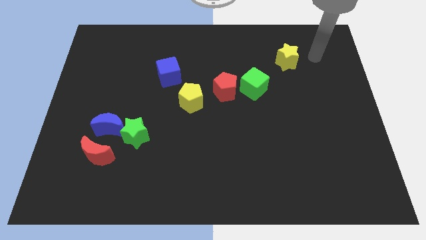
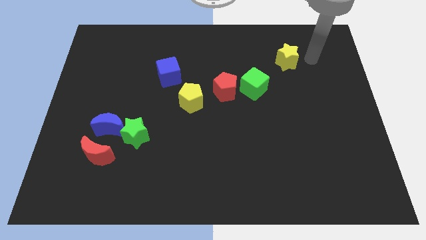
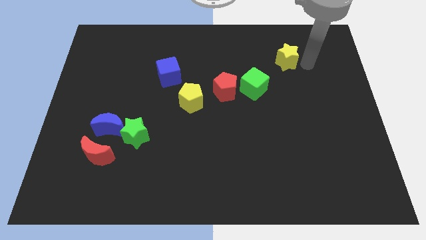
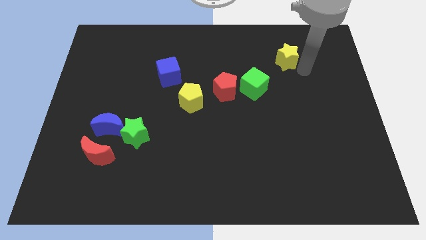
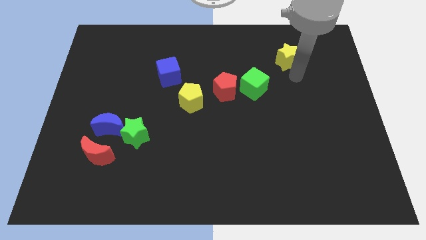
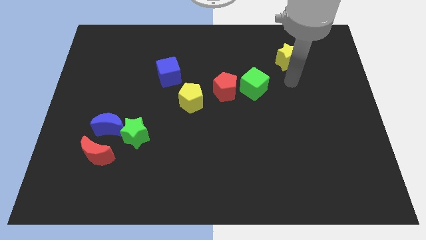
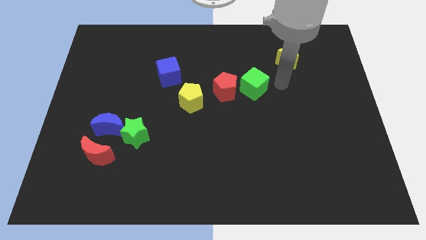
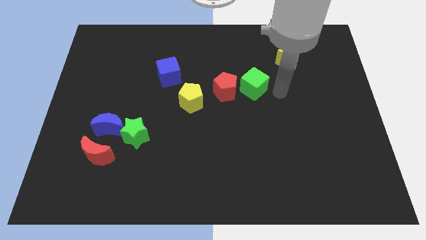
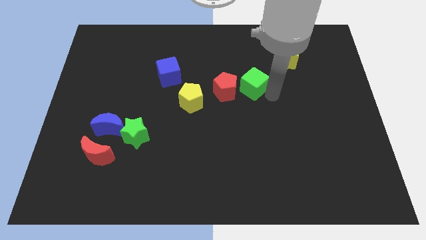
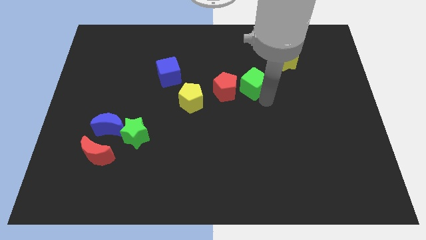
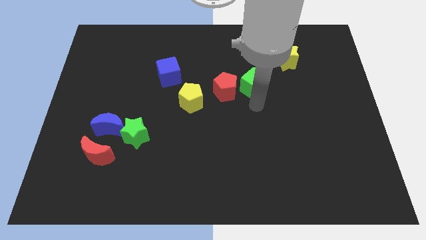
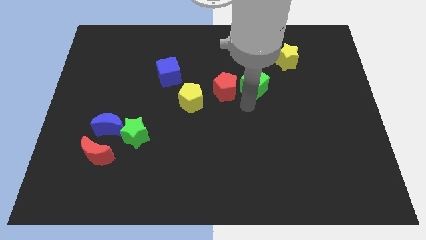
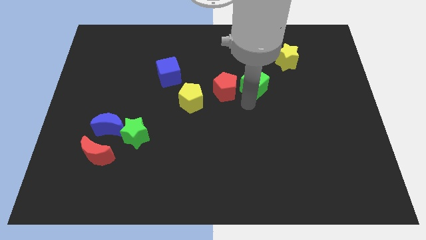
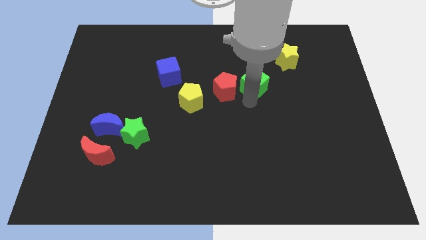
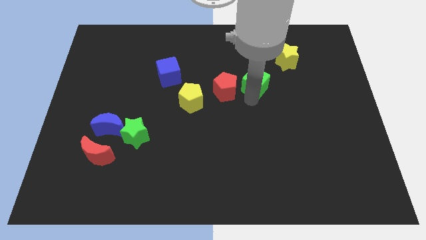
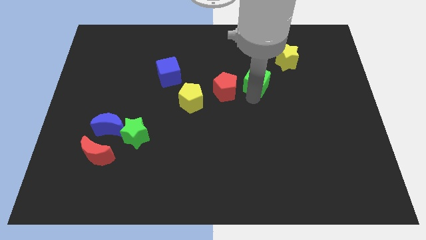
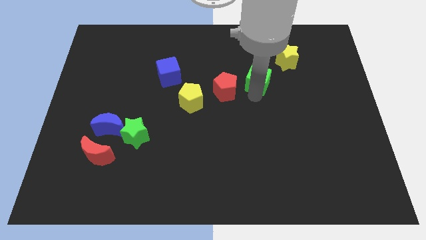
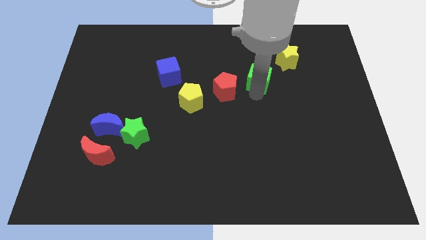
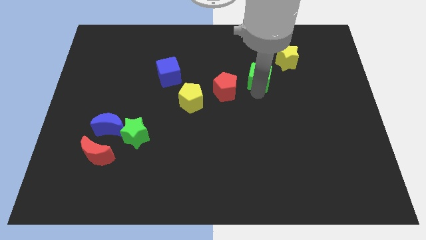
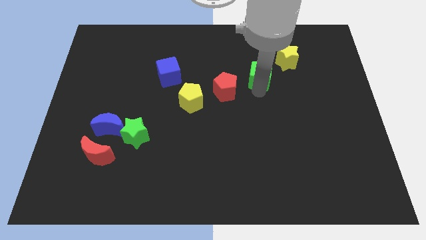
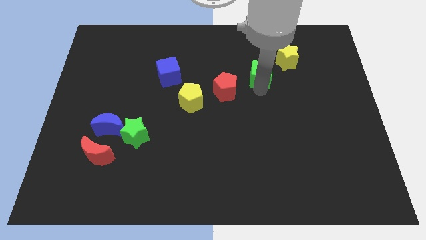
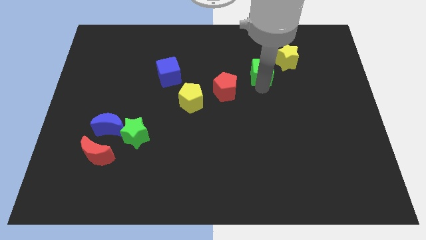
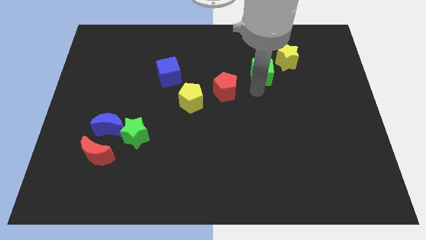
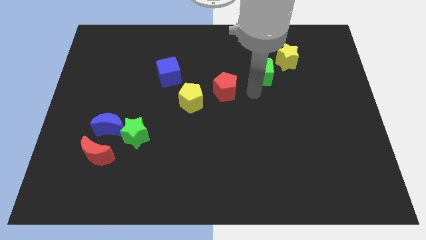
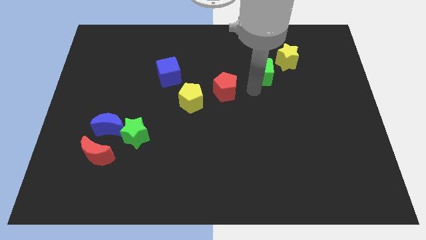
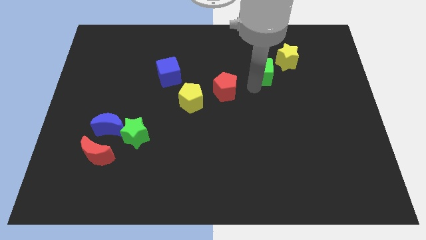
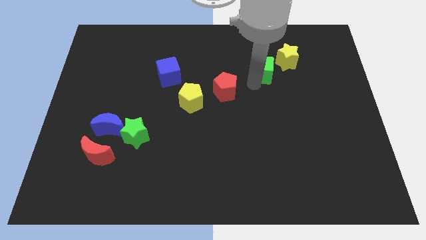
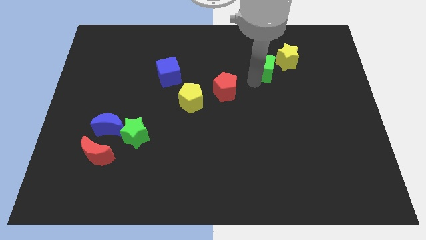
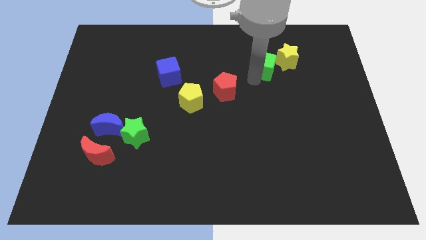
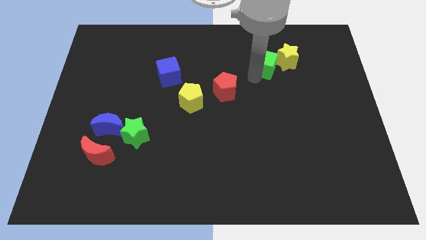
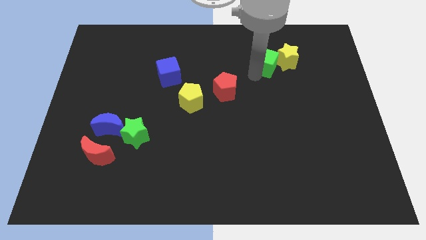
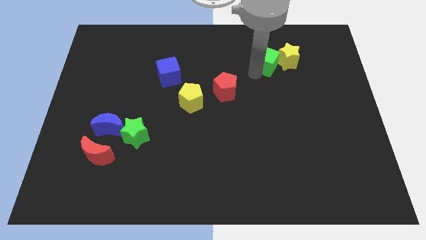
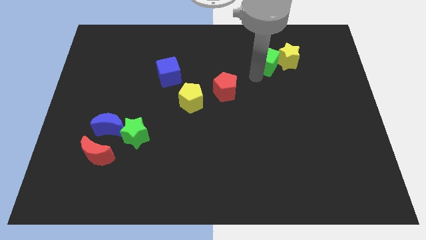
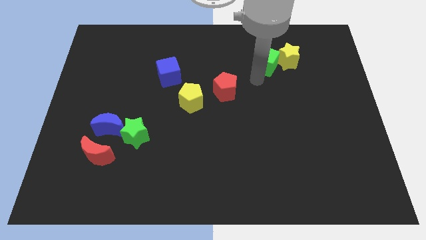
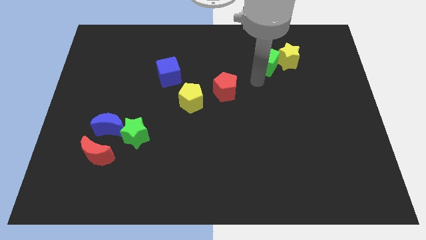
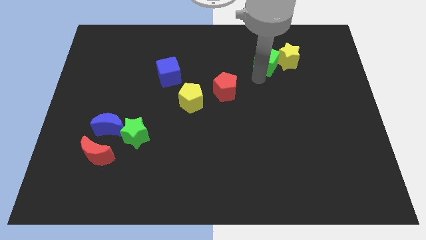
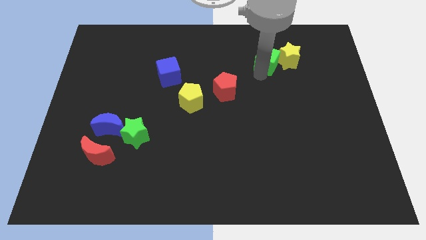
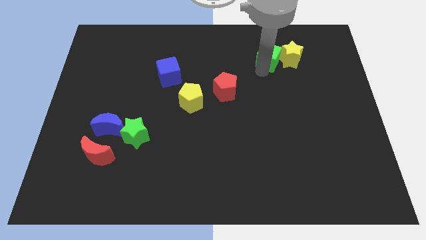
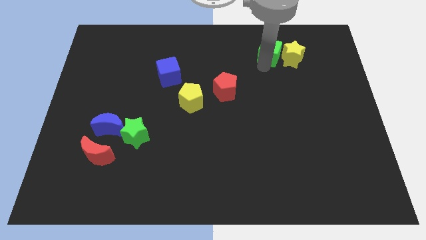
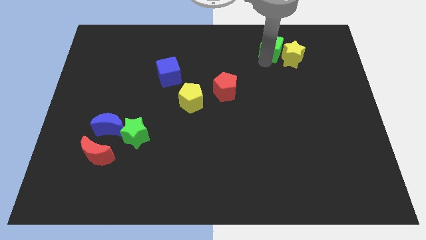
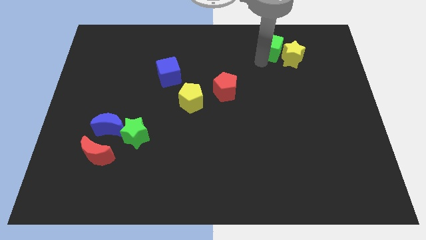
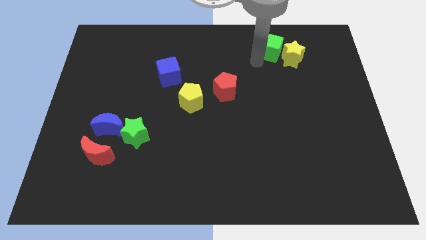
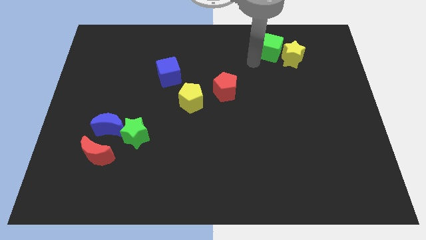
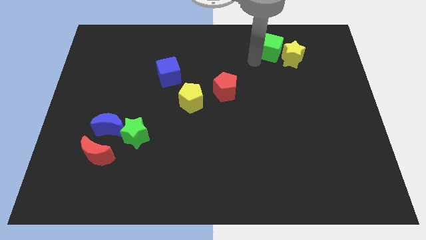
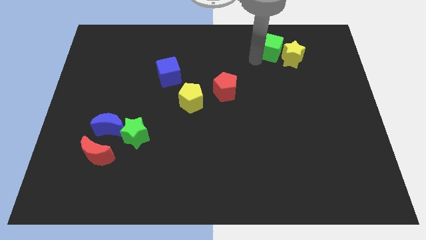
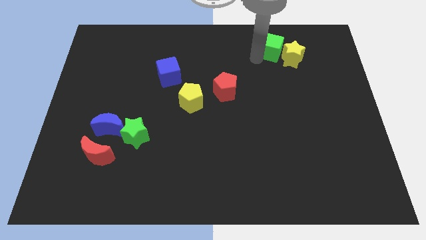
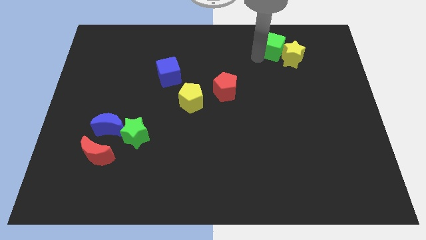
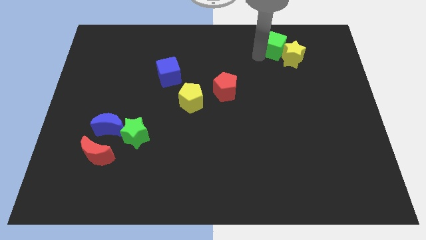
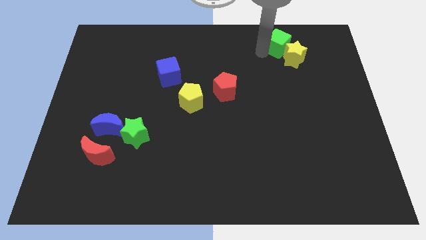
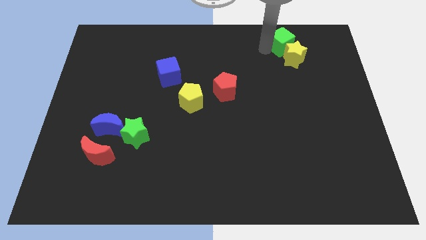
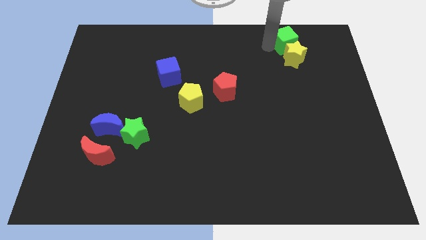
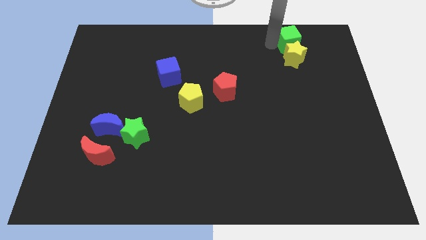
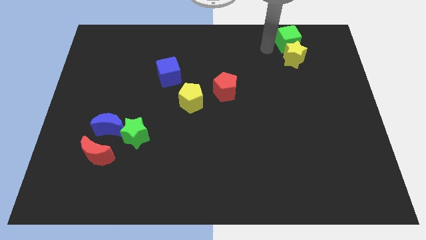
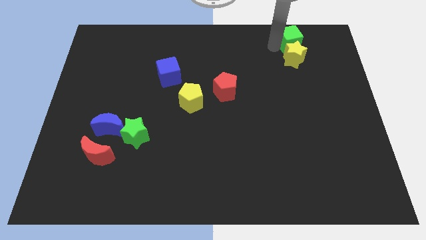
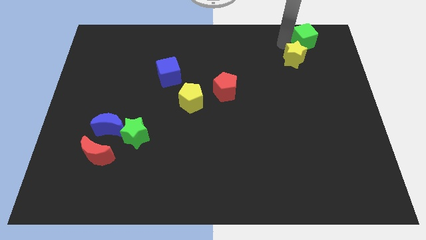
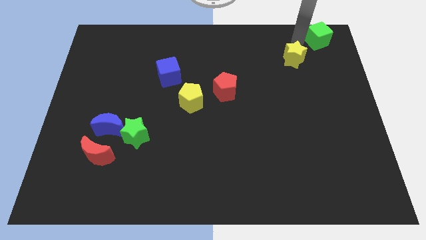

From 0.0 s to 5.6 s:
push the green cube to the top right

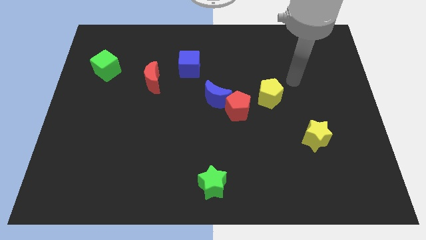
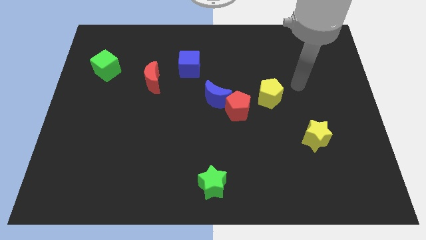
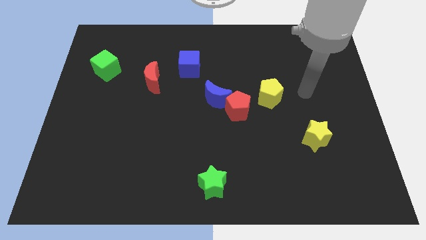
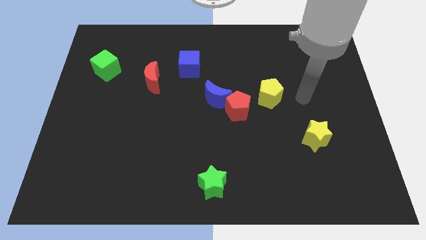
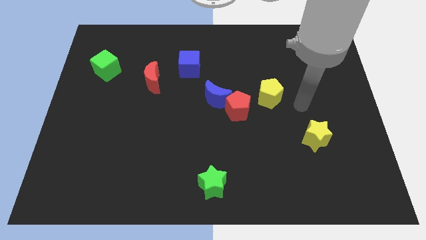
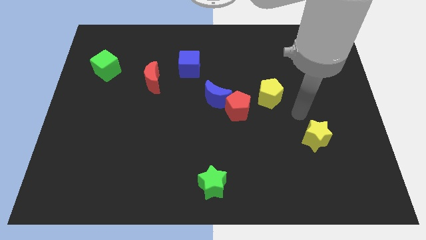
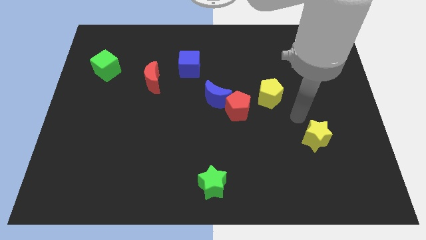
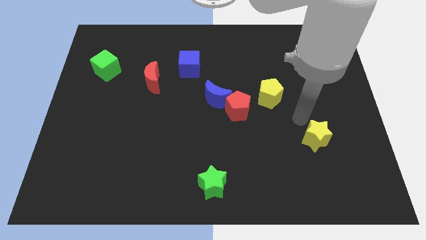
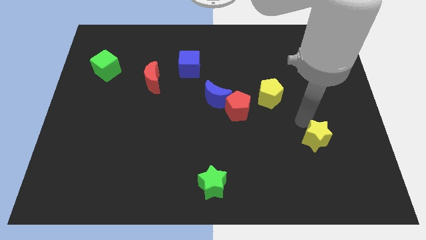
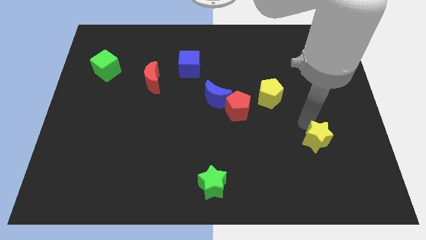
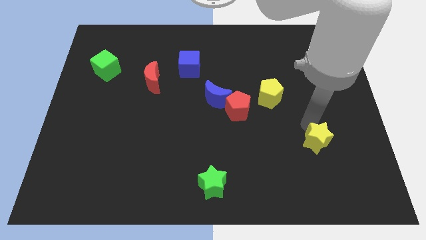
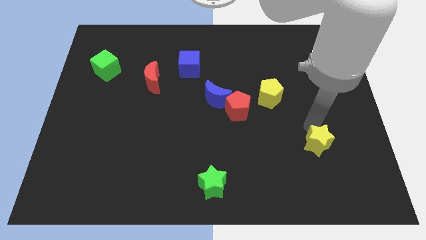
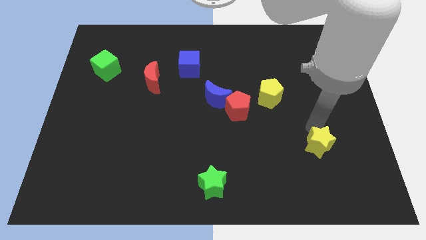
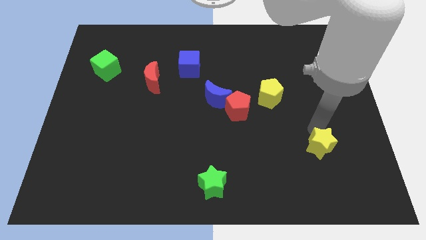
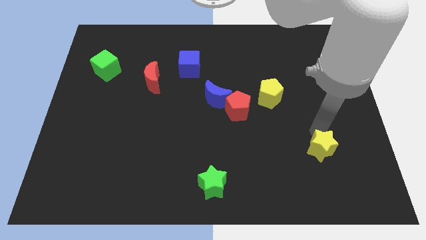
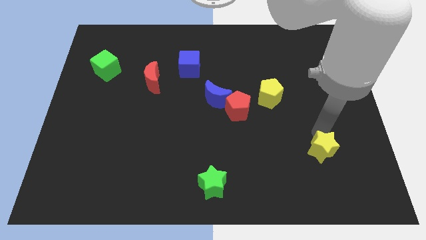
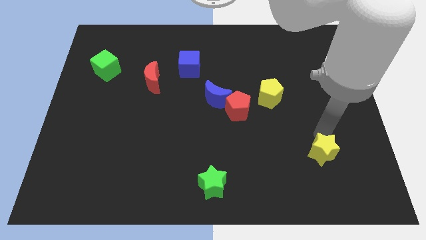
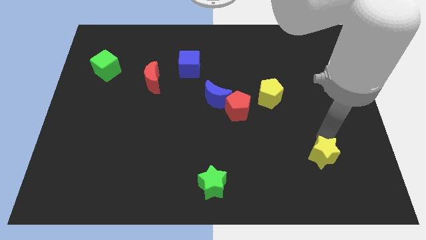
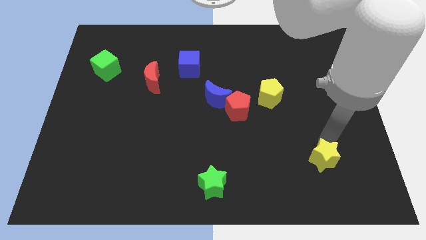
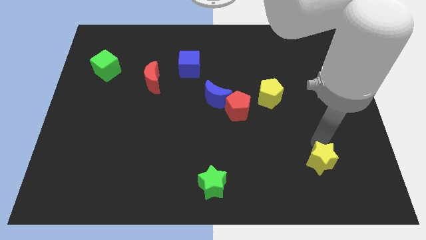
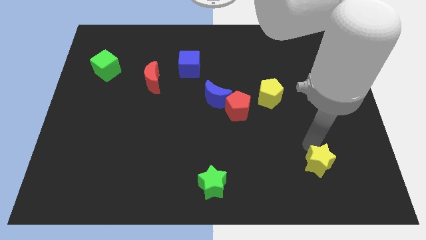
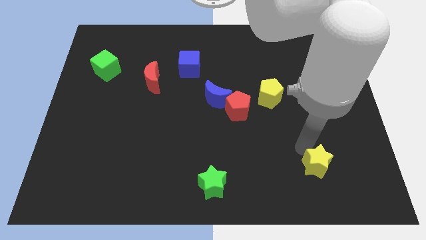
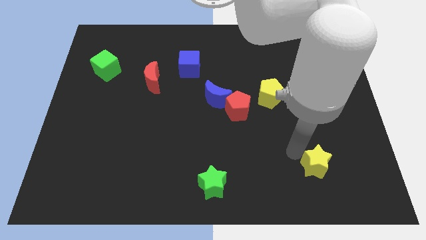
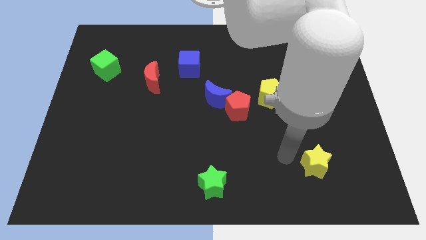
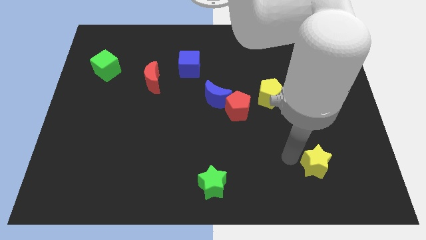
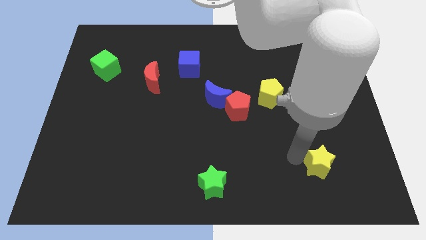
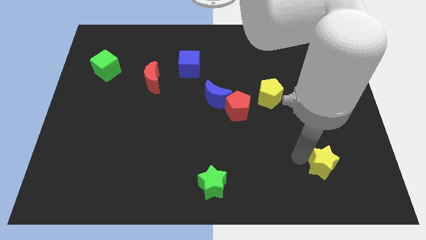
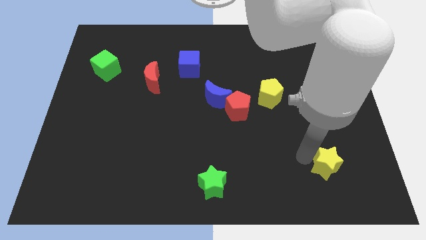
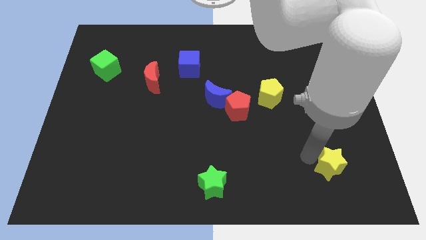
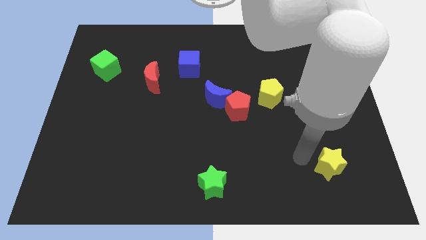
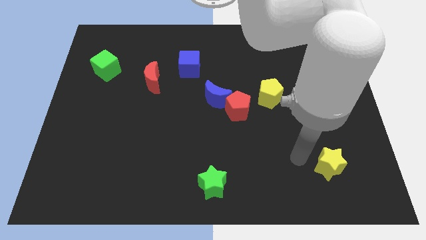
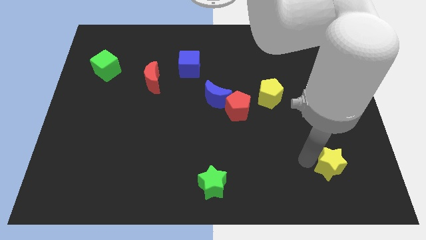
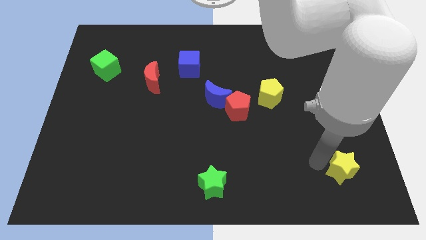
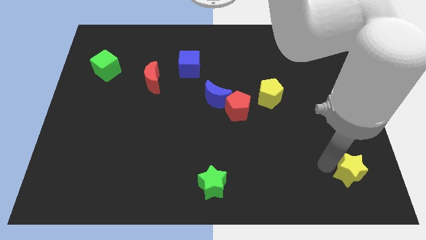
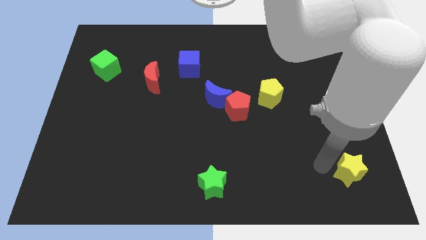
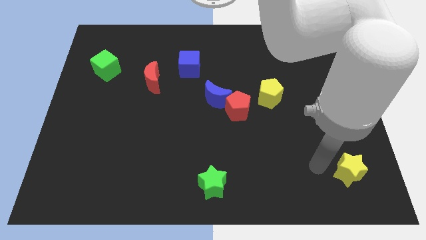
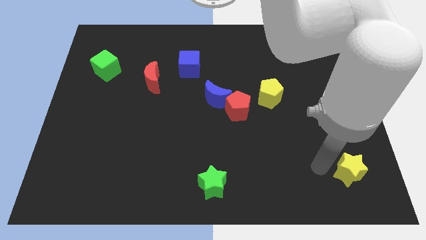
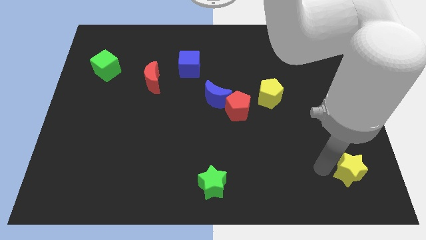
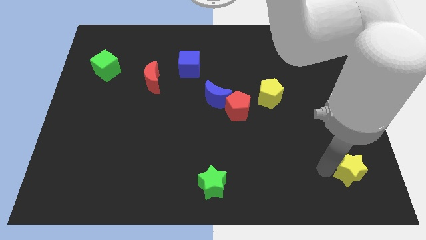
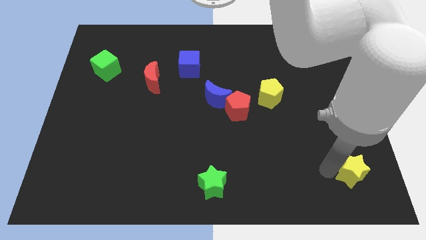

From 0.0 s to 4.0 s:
move the yellow star to the bottom right of the board
